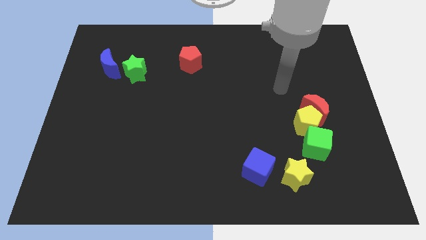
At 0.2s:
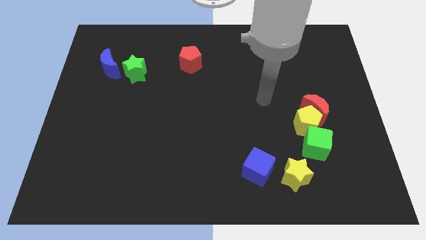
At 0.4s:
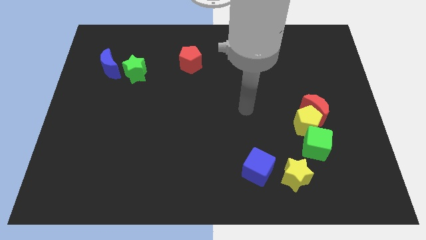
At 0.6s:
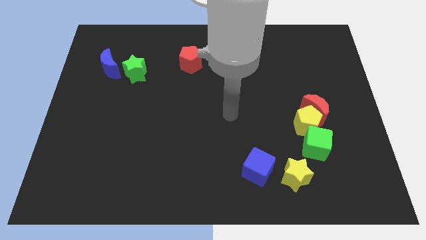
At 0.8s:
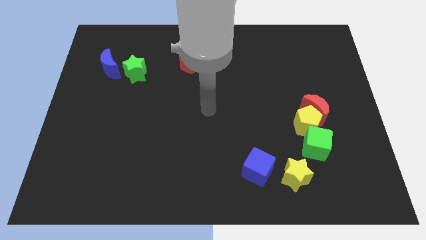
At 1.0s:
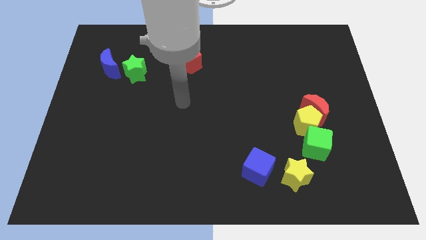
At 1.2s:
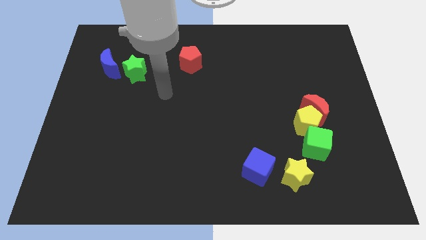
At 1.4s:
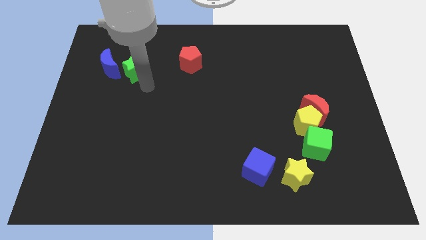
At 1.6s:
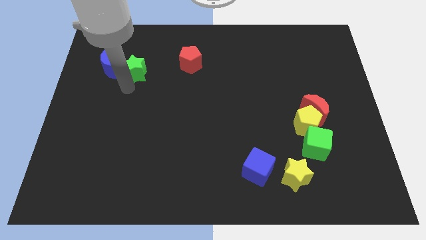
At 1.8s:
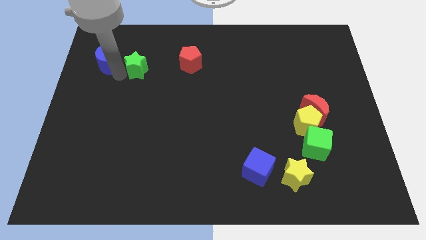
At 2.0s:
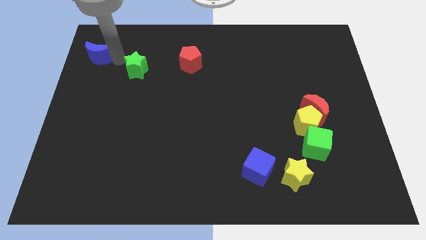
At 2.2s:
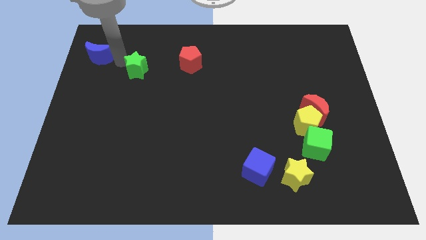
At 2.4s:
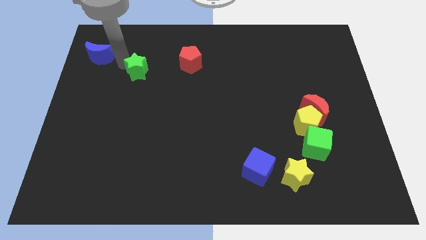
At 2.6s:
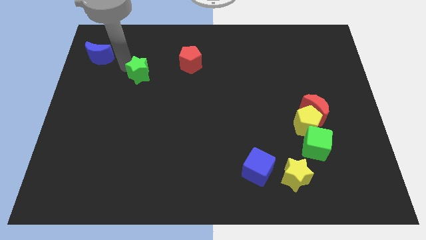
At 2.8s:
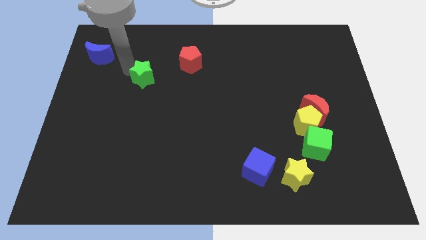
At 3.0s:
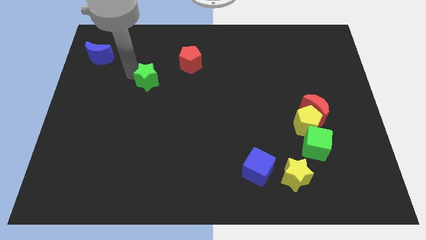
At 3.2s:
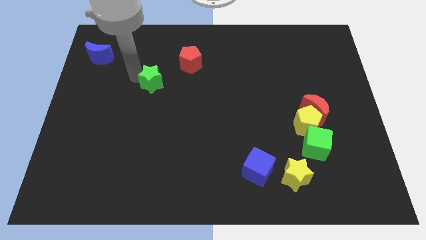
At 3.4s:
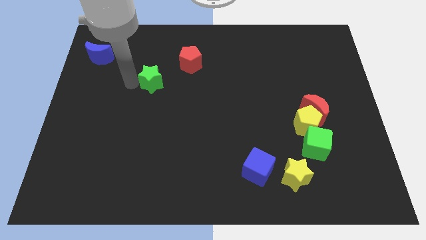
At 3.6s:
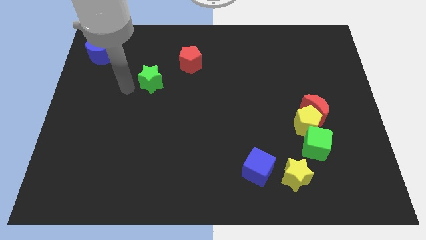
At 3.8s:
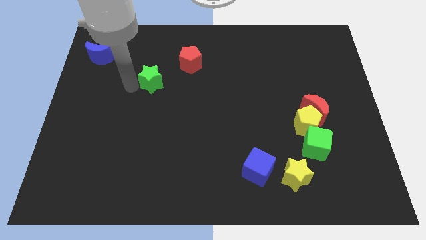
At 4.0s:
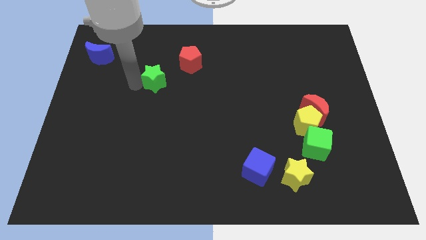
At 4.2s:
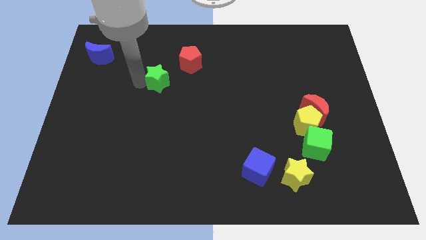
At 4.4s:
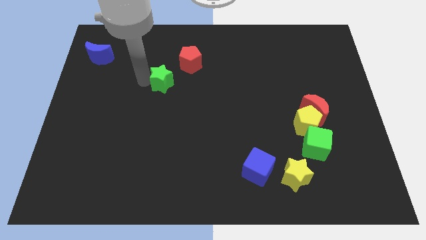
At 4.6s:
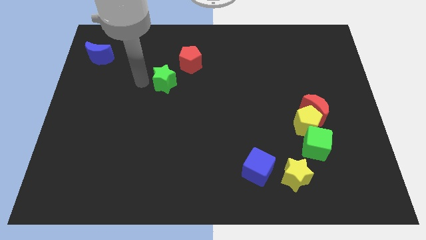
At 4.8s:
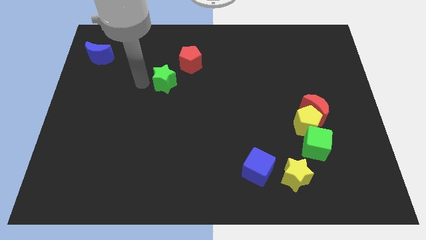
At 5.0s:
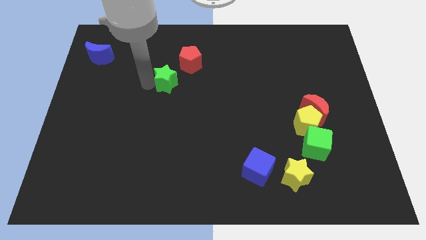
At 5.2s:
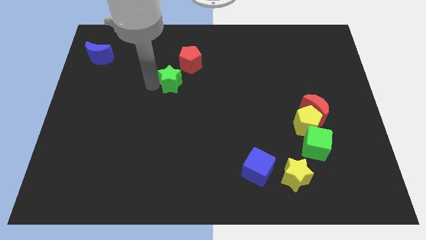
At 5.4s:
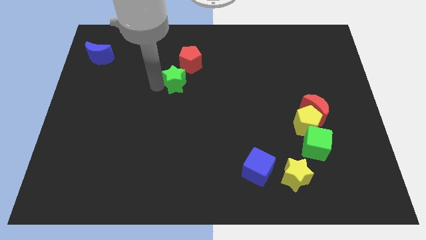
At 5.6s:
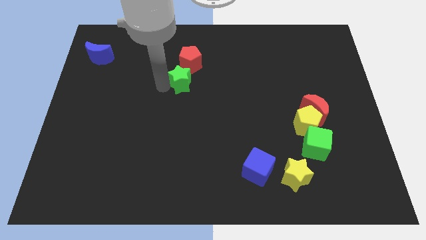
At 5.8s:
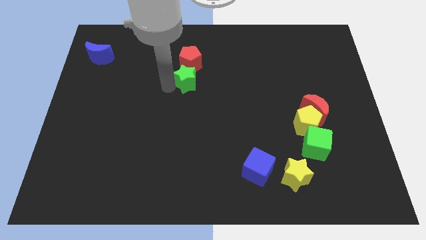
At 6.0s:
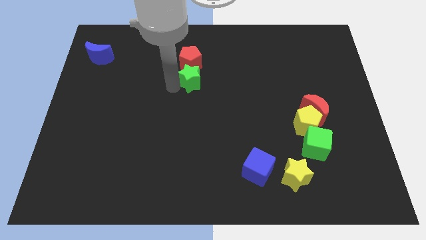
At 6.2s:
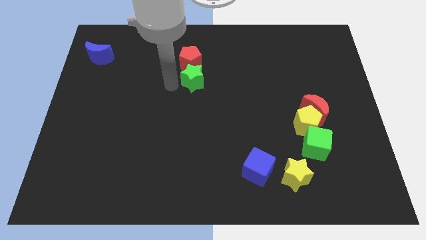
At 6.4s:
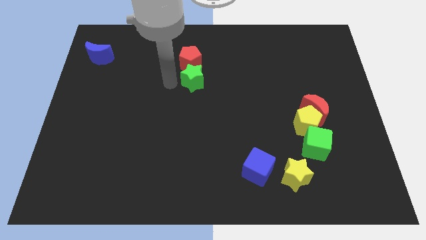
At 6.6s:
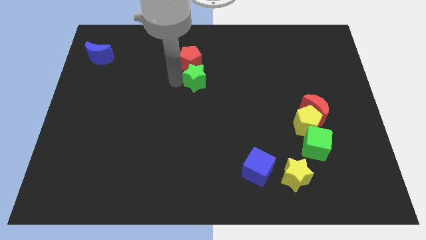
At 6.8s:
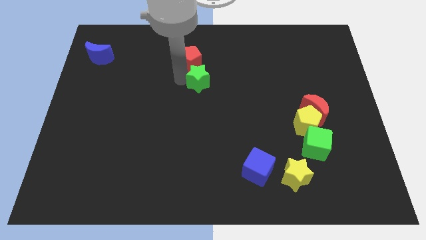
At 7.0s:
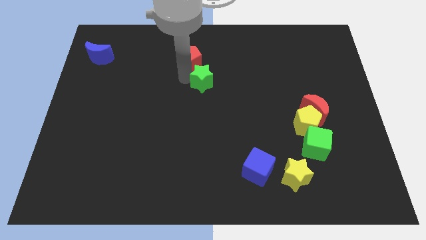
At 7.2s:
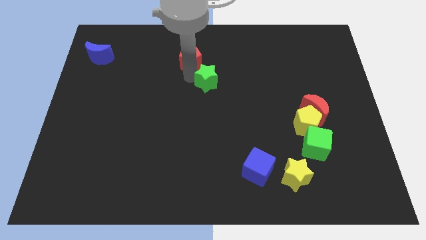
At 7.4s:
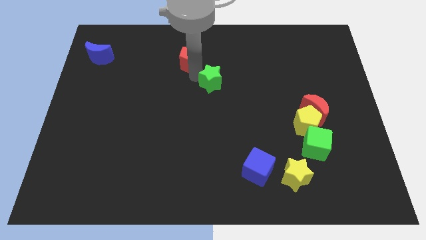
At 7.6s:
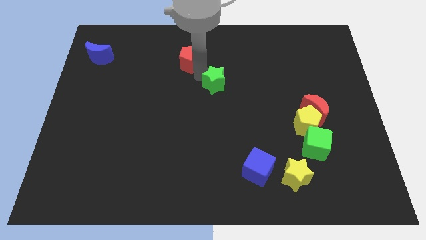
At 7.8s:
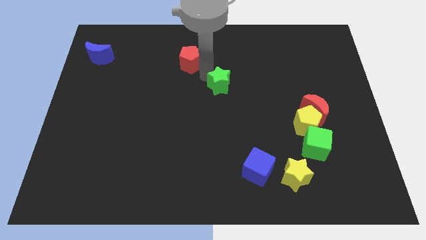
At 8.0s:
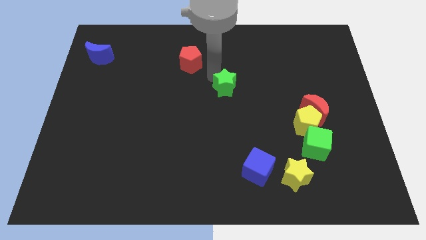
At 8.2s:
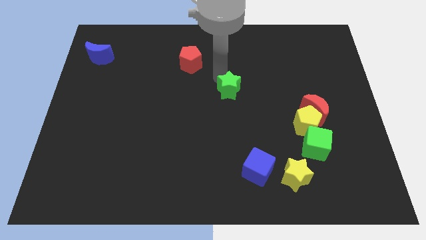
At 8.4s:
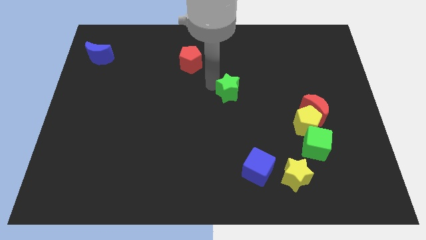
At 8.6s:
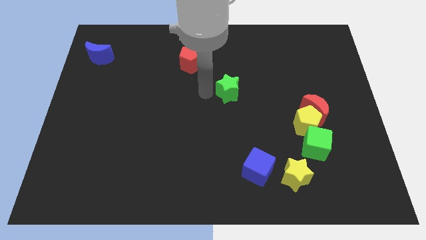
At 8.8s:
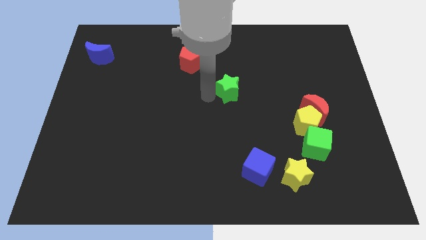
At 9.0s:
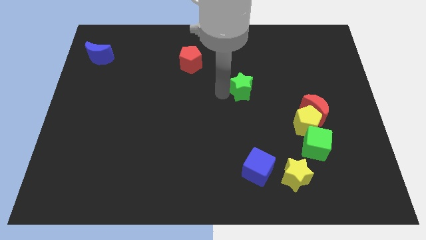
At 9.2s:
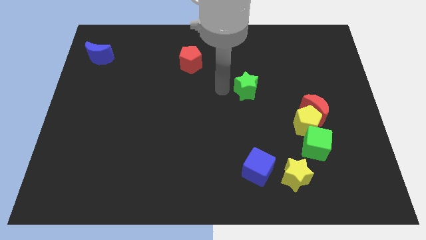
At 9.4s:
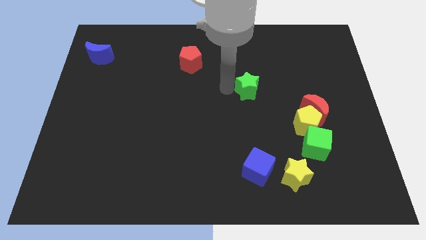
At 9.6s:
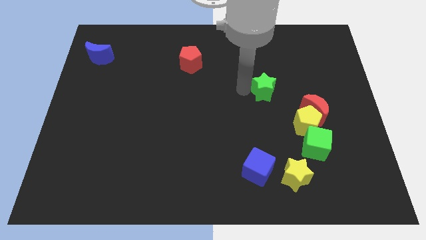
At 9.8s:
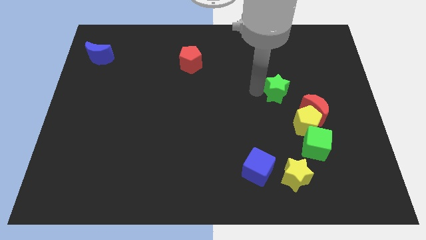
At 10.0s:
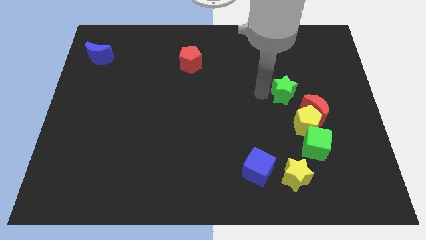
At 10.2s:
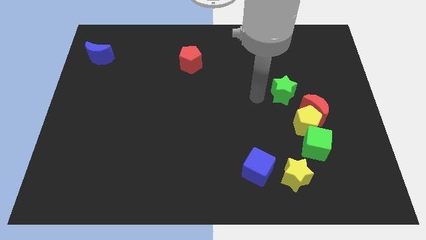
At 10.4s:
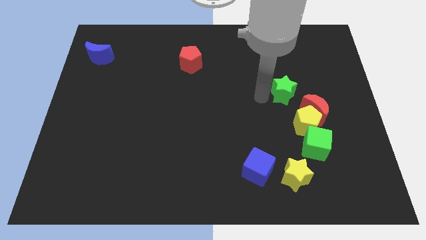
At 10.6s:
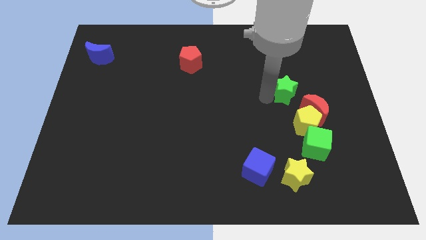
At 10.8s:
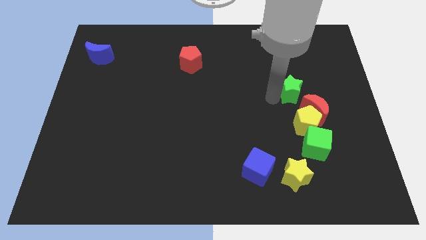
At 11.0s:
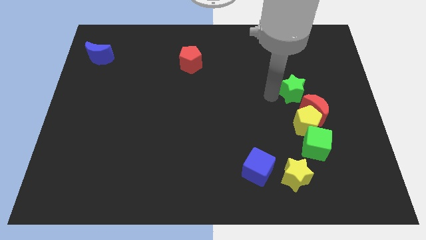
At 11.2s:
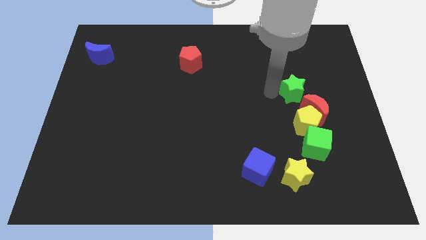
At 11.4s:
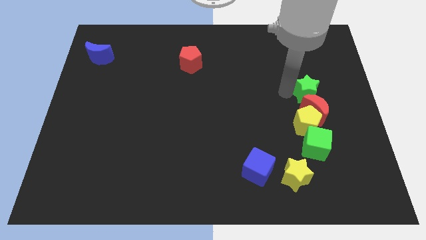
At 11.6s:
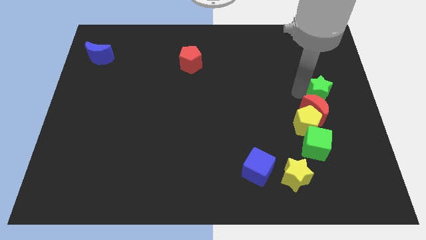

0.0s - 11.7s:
move the green star to the center right
